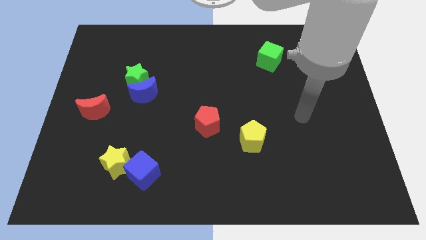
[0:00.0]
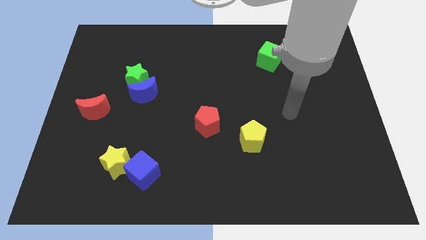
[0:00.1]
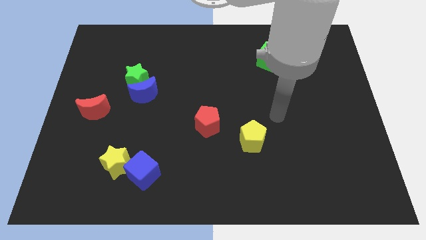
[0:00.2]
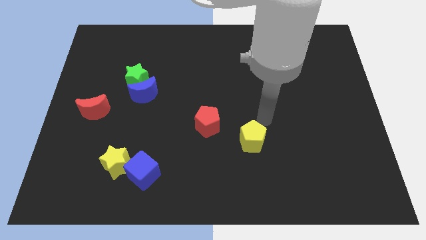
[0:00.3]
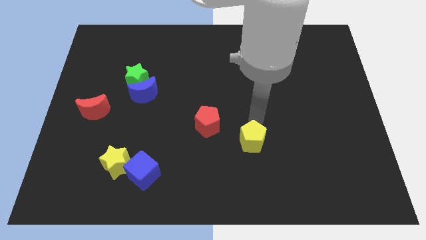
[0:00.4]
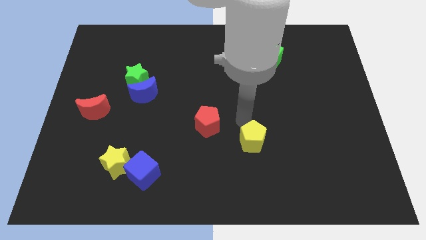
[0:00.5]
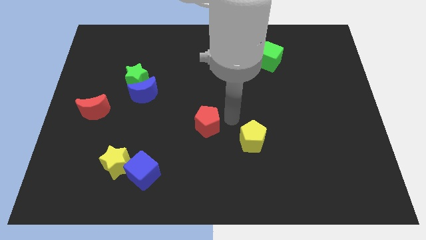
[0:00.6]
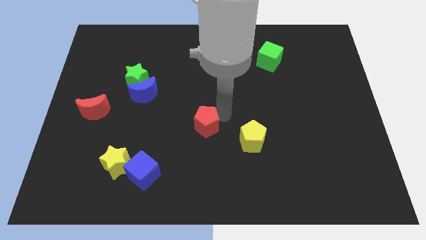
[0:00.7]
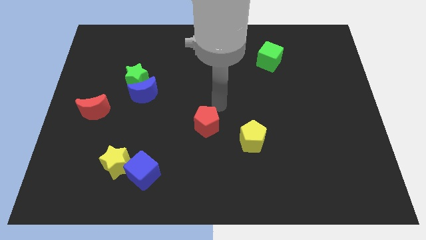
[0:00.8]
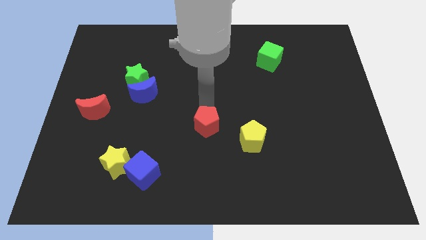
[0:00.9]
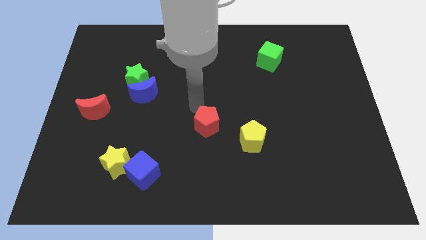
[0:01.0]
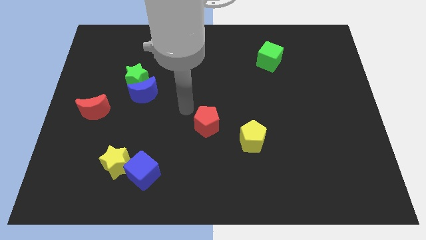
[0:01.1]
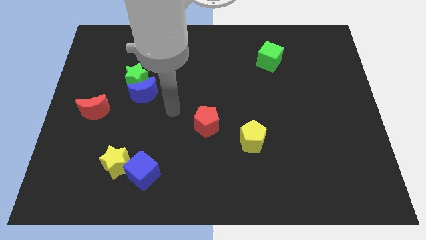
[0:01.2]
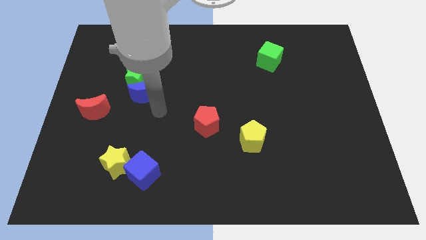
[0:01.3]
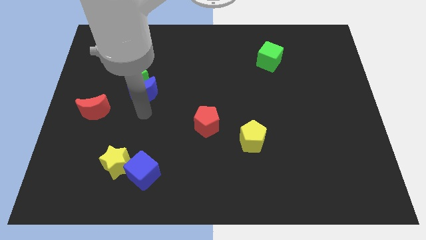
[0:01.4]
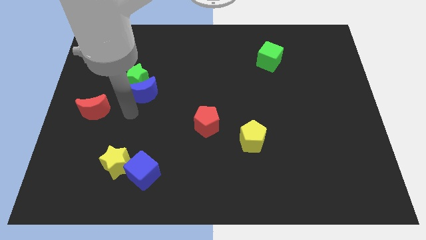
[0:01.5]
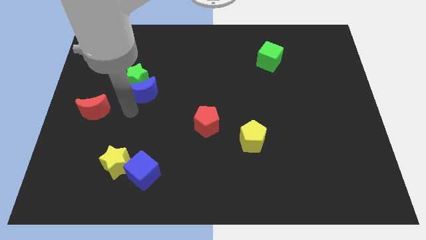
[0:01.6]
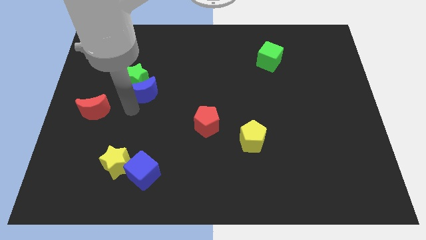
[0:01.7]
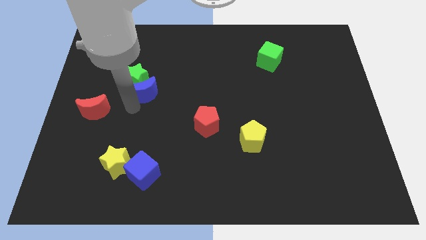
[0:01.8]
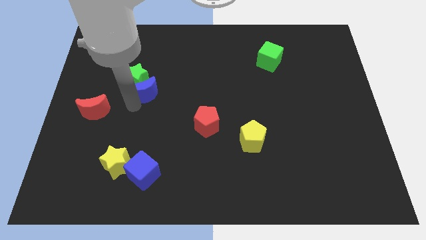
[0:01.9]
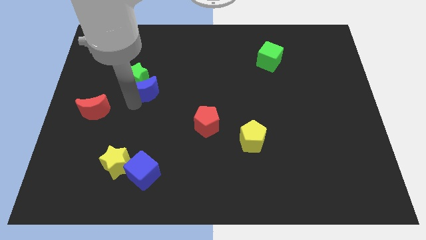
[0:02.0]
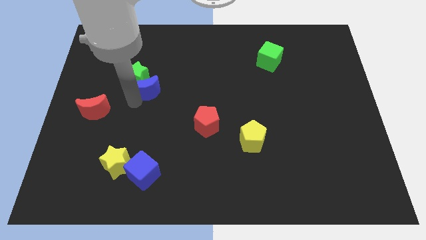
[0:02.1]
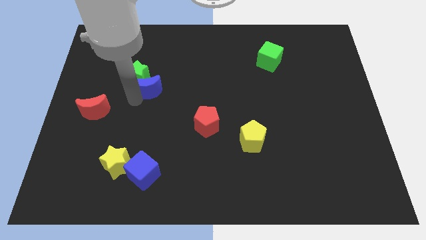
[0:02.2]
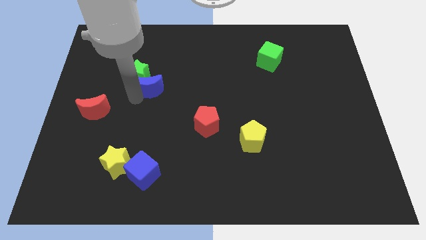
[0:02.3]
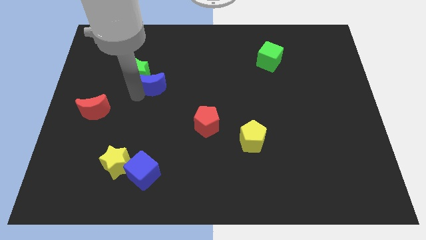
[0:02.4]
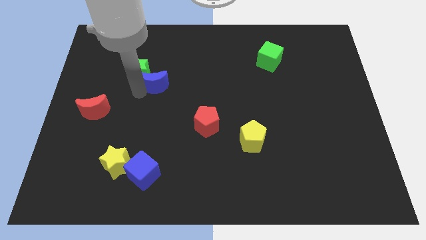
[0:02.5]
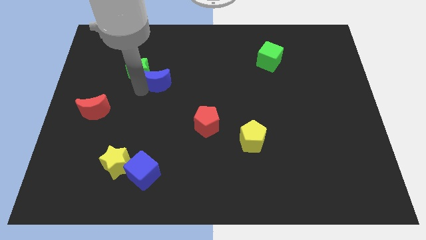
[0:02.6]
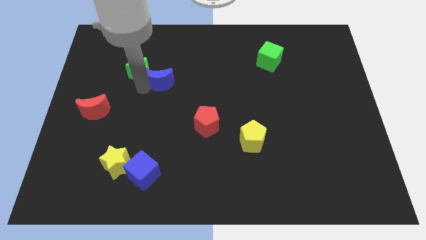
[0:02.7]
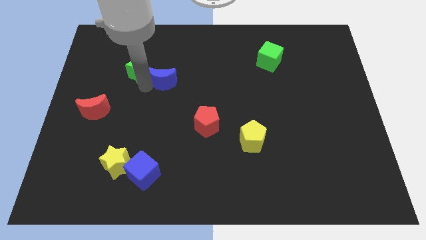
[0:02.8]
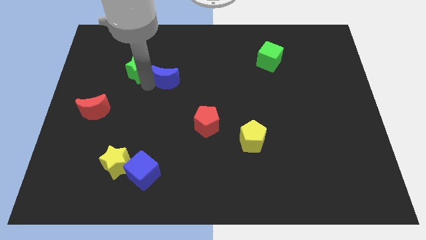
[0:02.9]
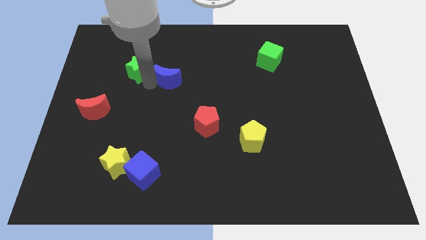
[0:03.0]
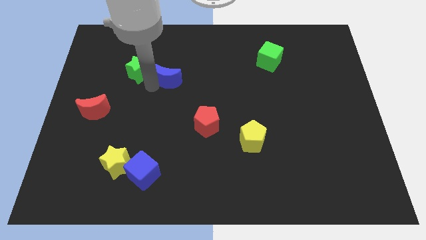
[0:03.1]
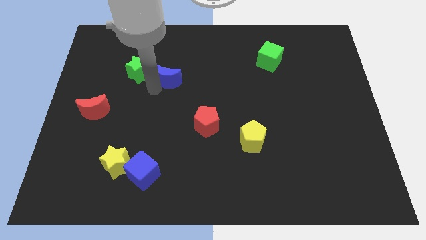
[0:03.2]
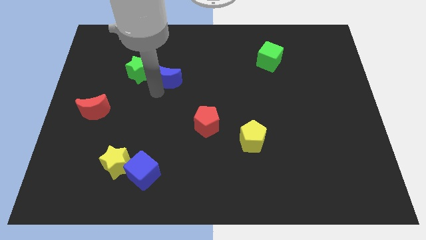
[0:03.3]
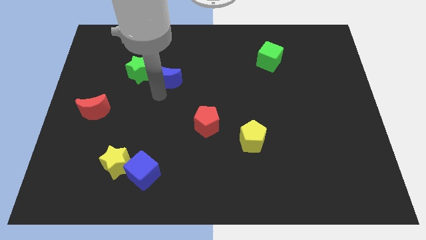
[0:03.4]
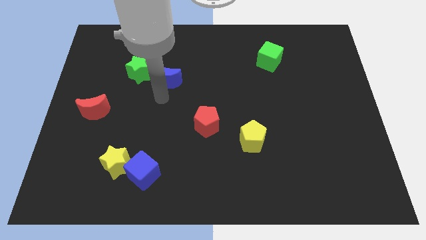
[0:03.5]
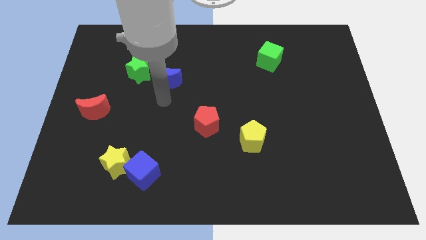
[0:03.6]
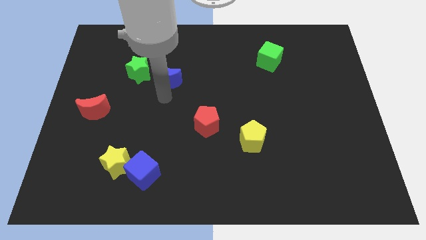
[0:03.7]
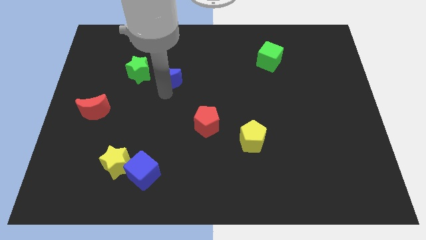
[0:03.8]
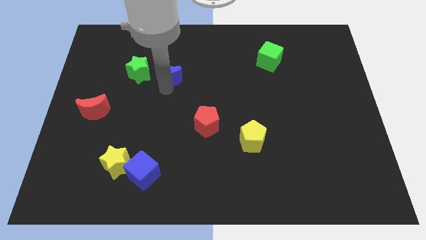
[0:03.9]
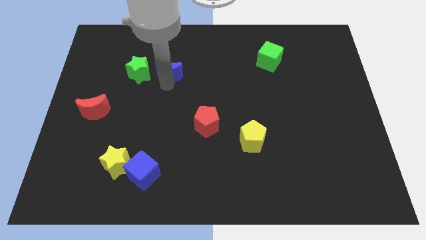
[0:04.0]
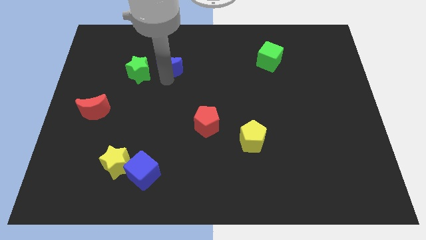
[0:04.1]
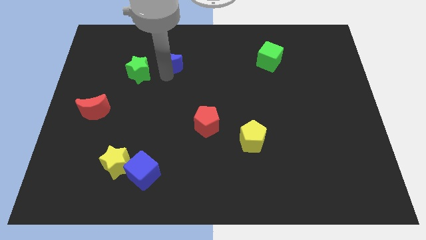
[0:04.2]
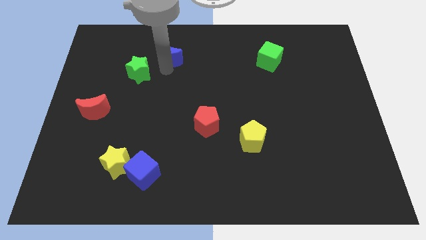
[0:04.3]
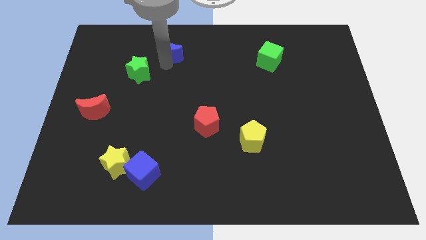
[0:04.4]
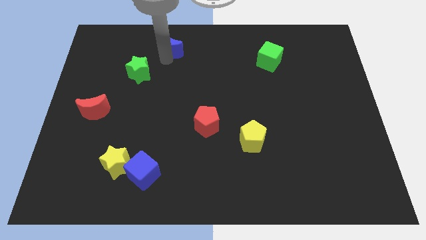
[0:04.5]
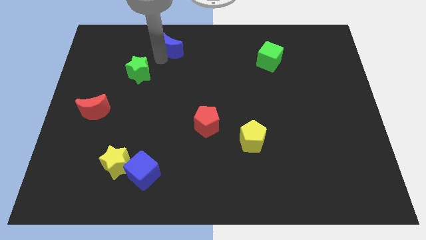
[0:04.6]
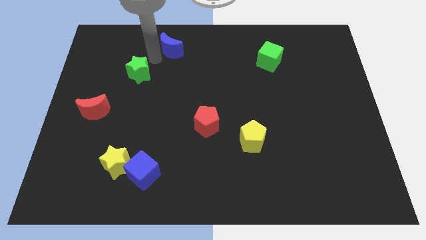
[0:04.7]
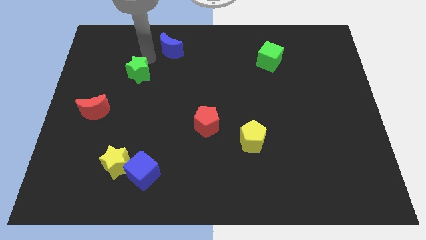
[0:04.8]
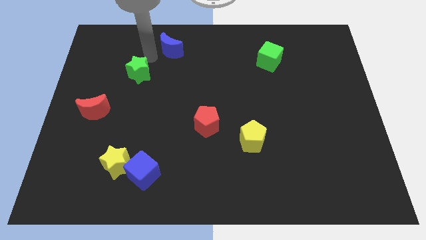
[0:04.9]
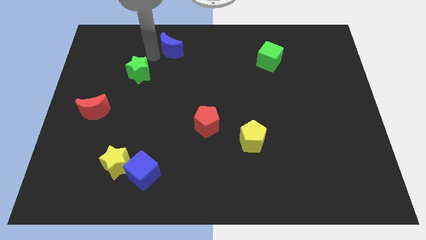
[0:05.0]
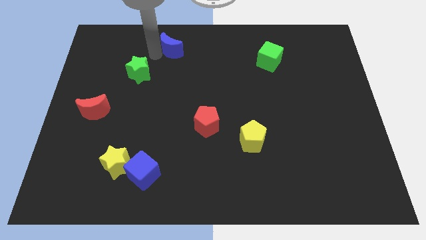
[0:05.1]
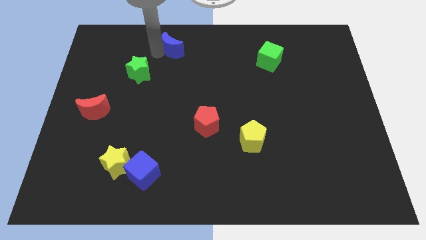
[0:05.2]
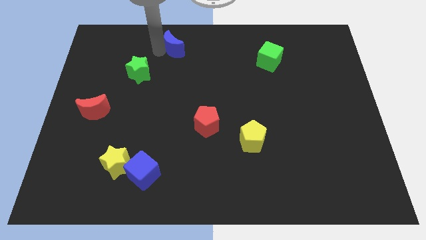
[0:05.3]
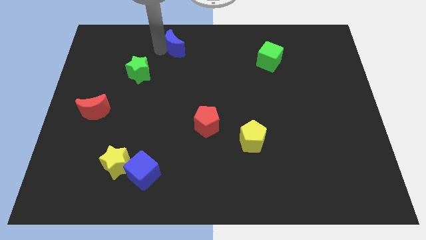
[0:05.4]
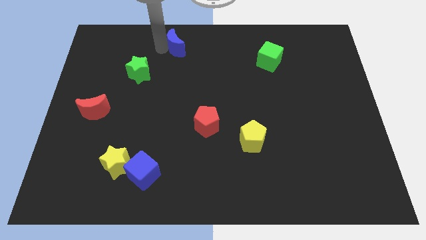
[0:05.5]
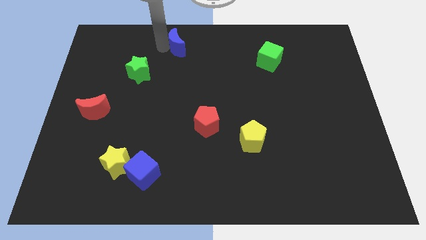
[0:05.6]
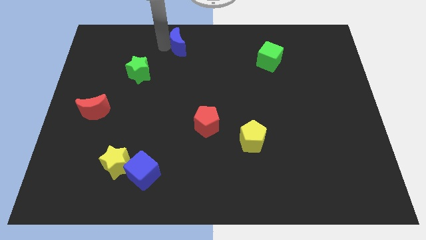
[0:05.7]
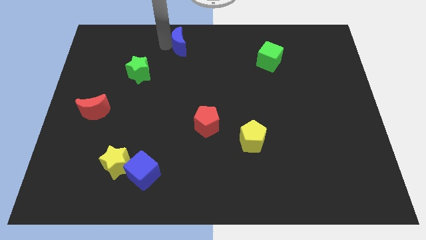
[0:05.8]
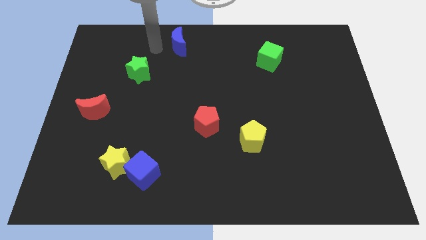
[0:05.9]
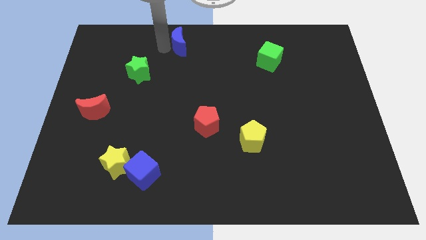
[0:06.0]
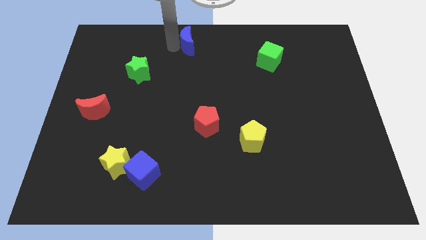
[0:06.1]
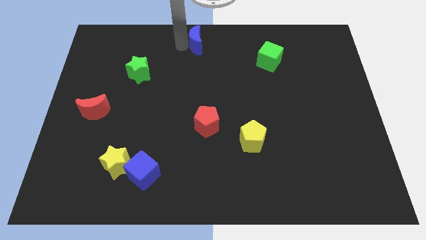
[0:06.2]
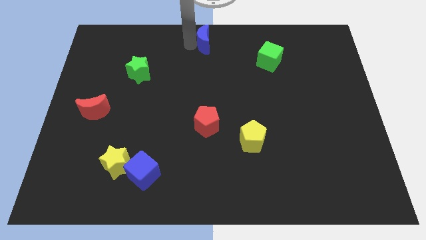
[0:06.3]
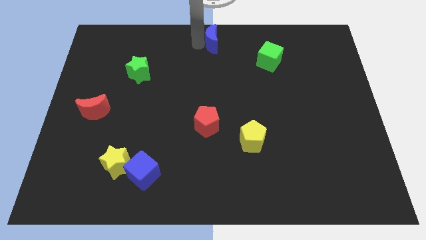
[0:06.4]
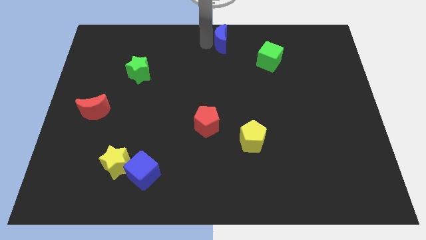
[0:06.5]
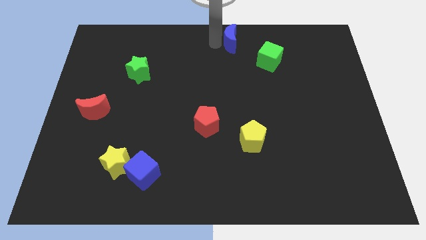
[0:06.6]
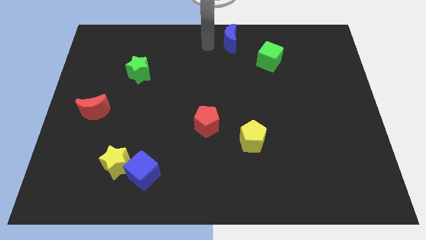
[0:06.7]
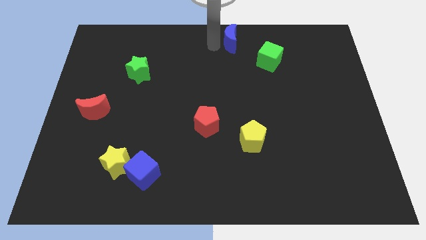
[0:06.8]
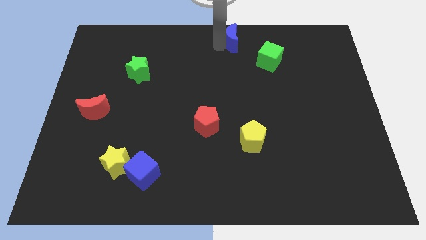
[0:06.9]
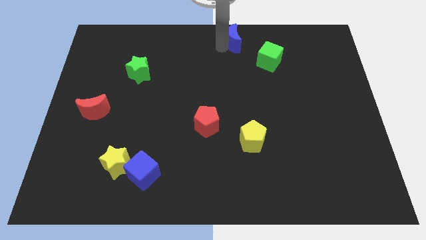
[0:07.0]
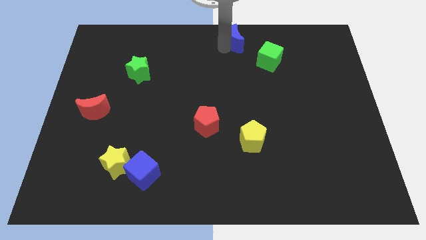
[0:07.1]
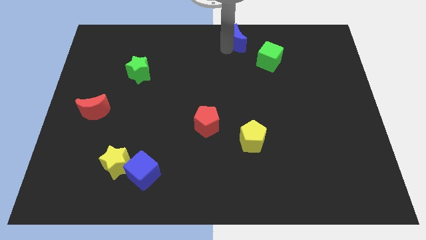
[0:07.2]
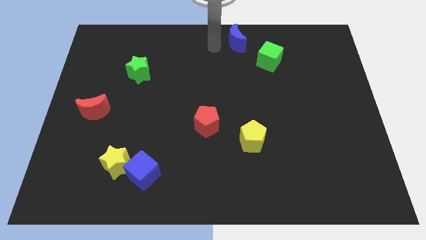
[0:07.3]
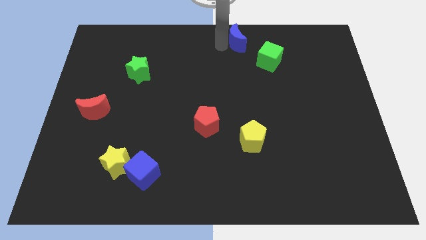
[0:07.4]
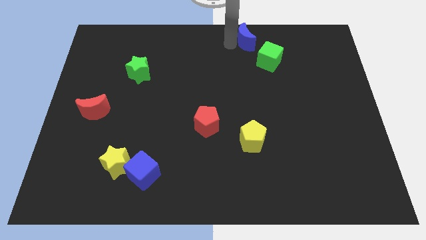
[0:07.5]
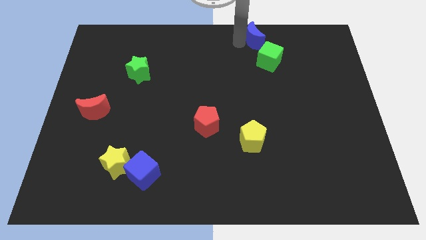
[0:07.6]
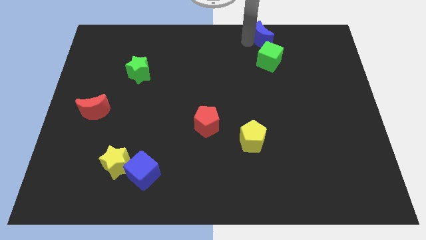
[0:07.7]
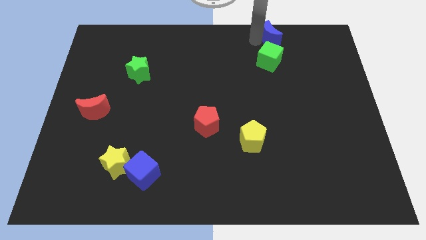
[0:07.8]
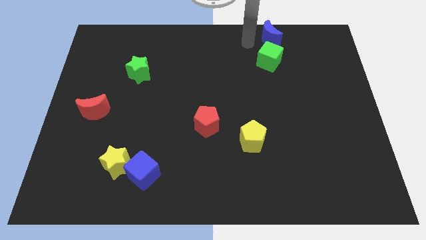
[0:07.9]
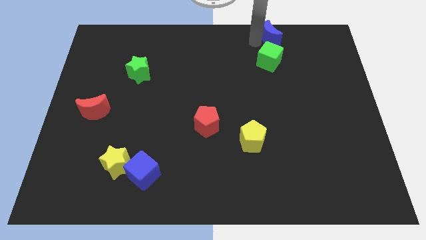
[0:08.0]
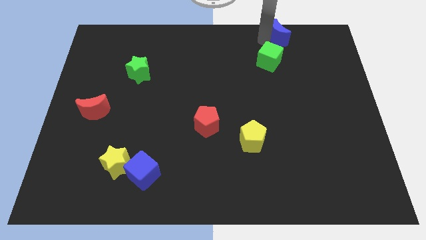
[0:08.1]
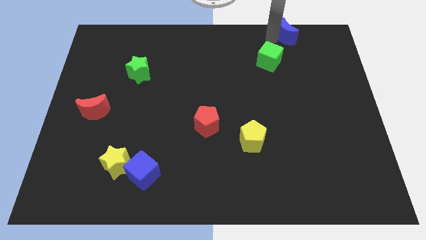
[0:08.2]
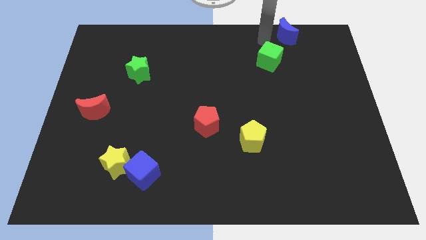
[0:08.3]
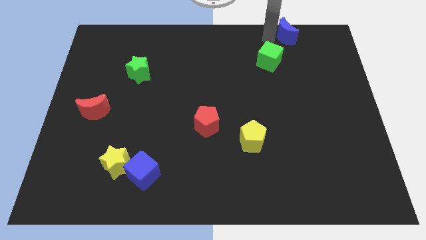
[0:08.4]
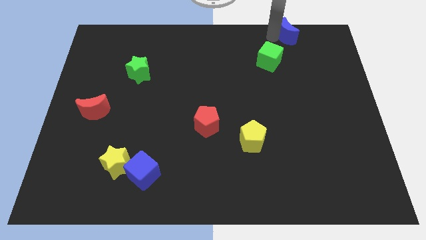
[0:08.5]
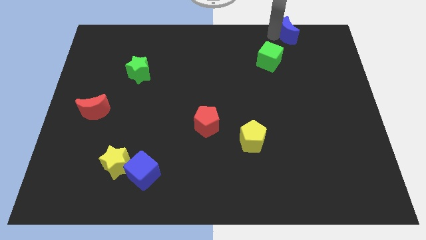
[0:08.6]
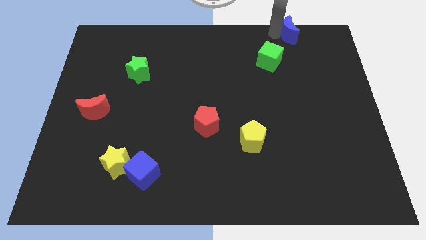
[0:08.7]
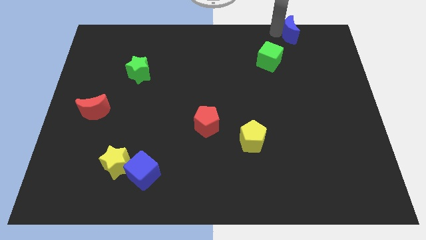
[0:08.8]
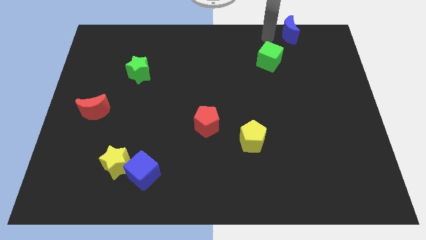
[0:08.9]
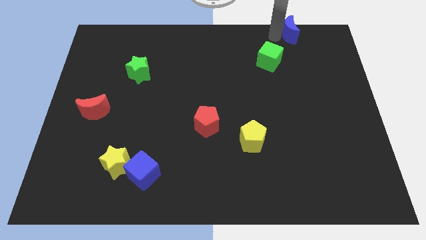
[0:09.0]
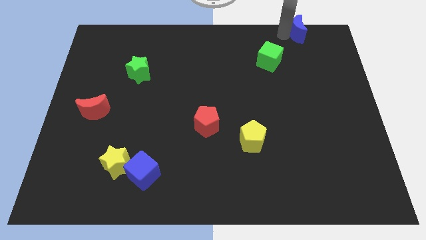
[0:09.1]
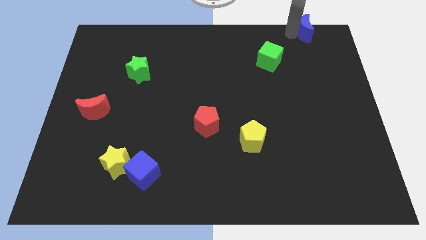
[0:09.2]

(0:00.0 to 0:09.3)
put the blue moon to the top right
